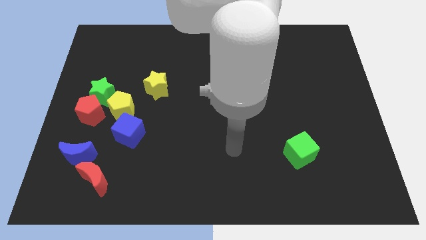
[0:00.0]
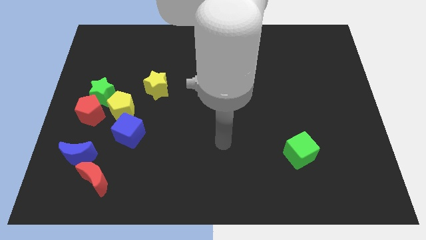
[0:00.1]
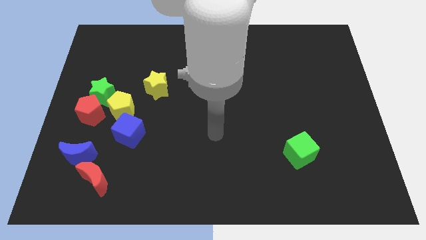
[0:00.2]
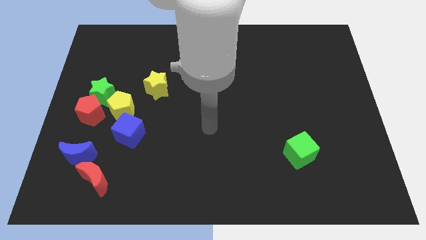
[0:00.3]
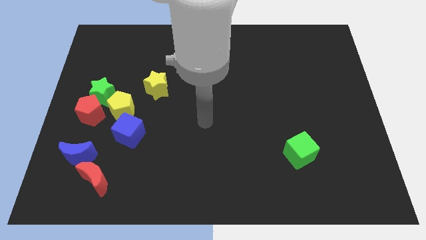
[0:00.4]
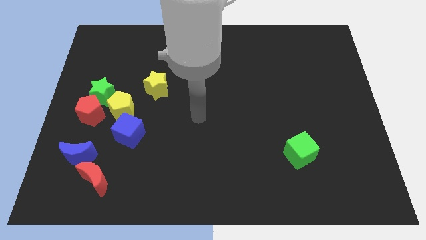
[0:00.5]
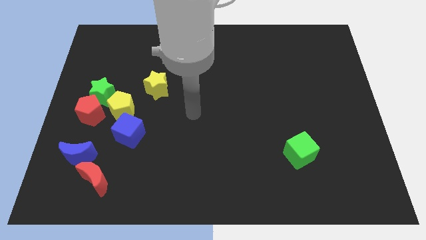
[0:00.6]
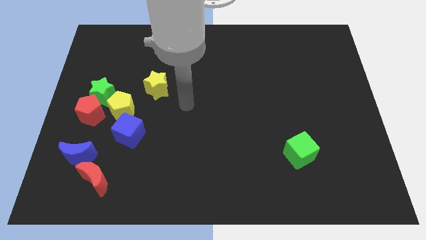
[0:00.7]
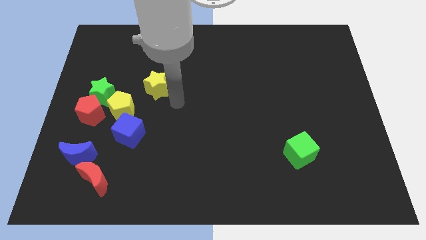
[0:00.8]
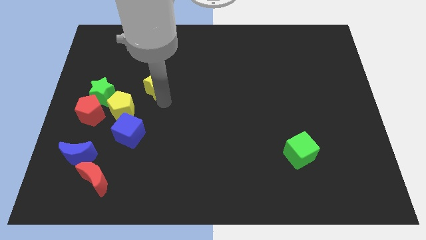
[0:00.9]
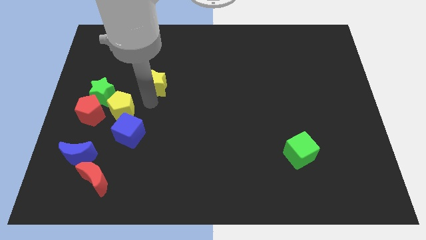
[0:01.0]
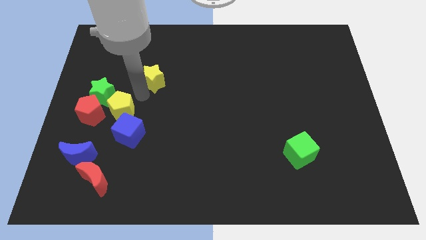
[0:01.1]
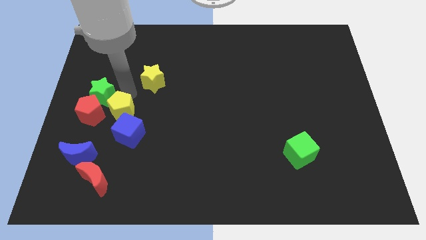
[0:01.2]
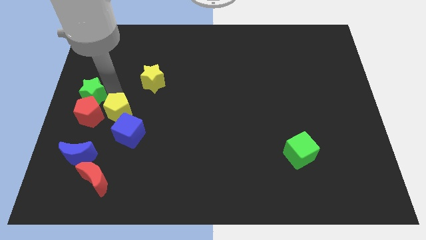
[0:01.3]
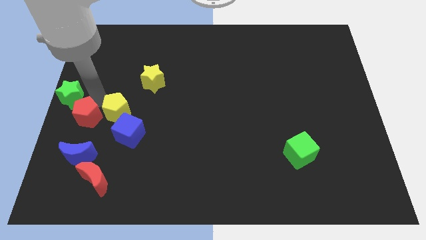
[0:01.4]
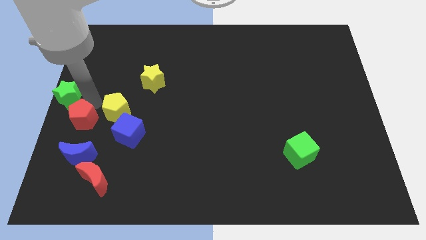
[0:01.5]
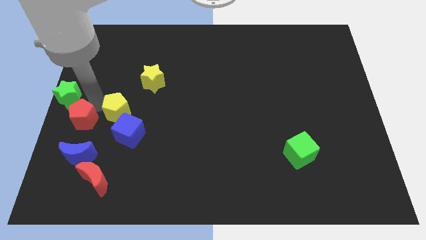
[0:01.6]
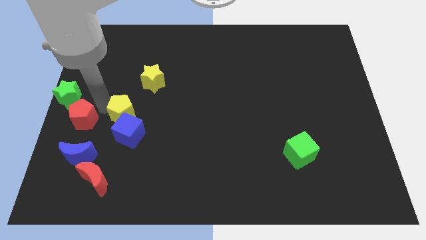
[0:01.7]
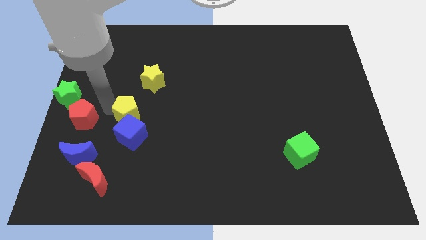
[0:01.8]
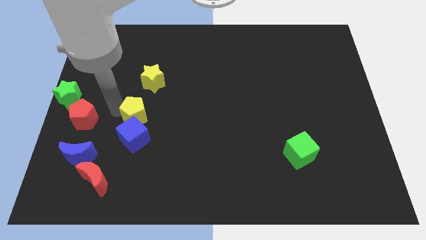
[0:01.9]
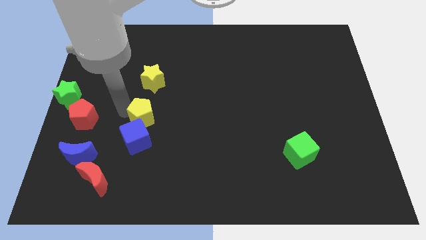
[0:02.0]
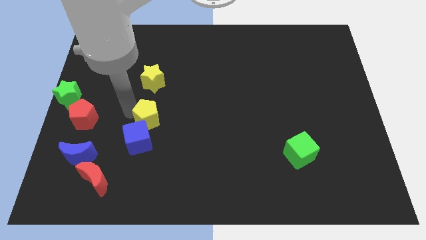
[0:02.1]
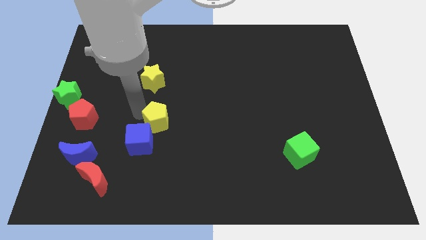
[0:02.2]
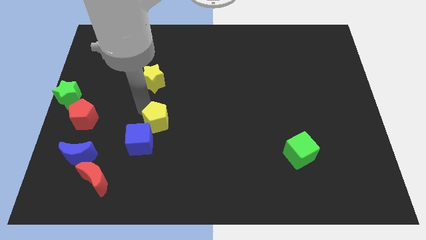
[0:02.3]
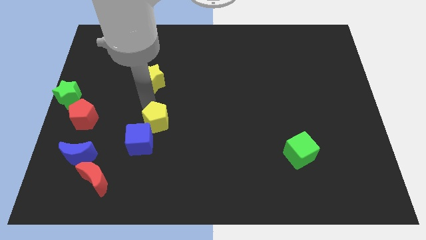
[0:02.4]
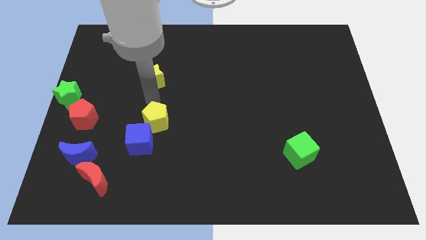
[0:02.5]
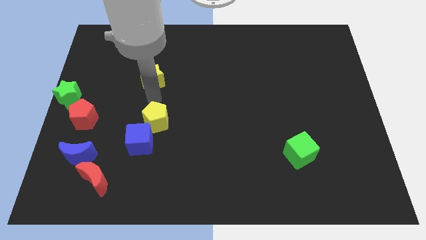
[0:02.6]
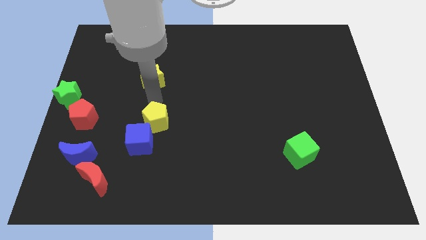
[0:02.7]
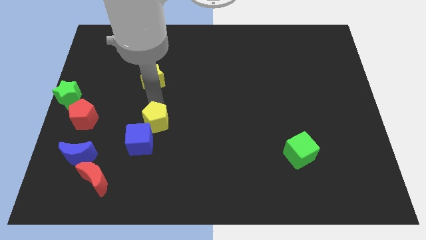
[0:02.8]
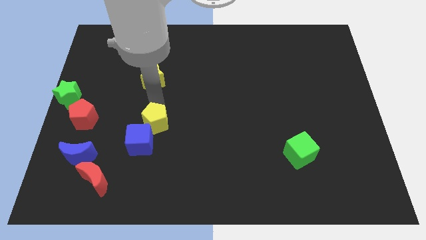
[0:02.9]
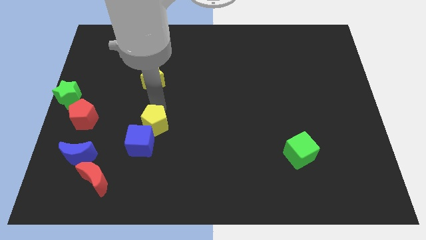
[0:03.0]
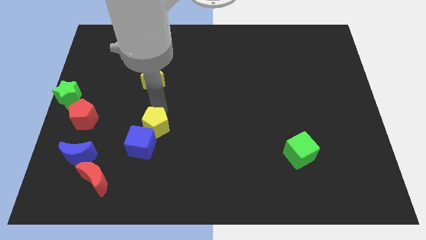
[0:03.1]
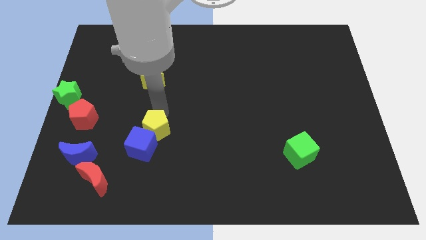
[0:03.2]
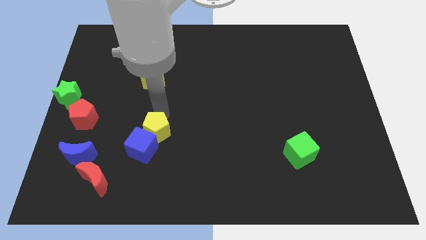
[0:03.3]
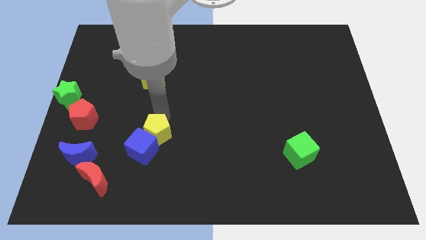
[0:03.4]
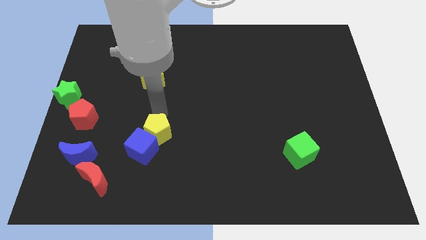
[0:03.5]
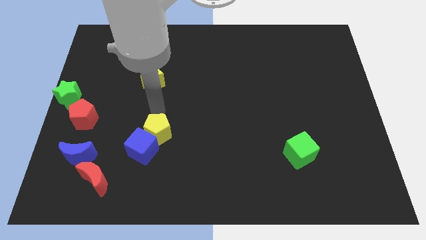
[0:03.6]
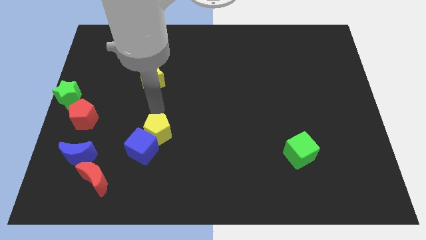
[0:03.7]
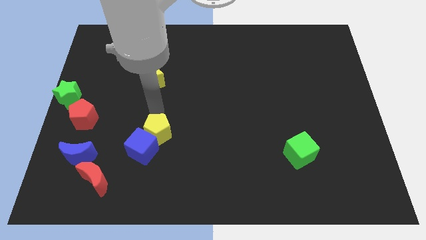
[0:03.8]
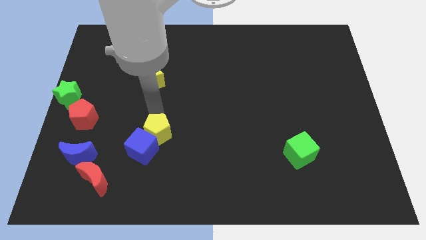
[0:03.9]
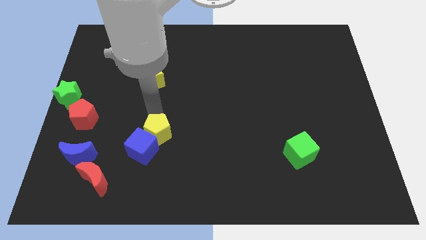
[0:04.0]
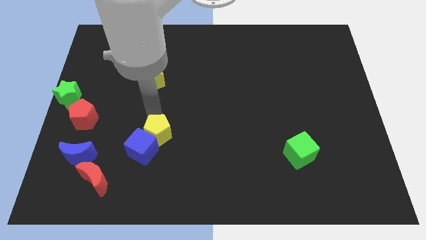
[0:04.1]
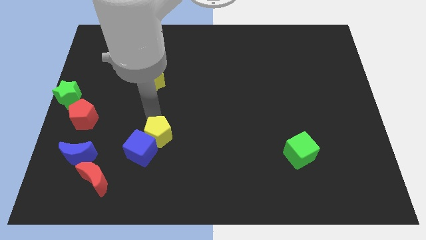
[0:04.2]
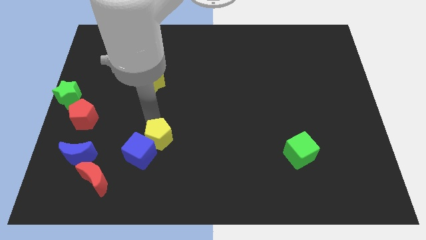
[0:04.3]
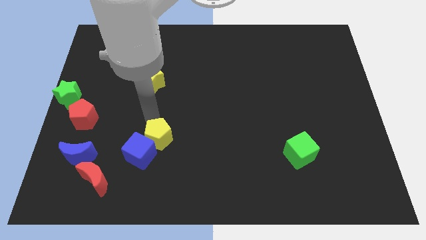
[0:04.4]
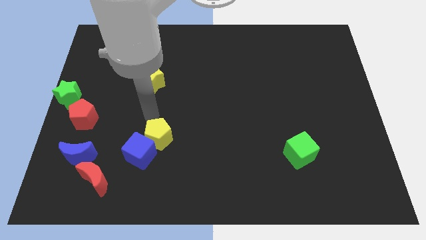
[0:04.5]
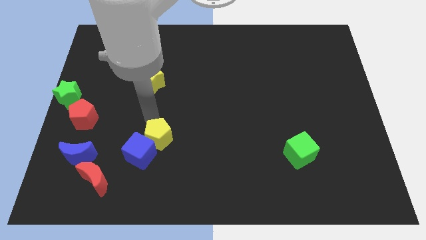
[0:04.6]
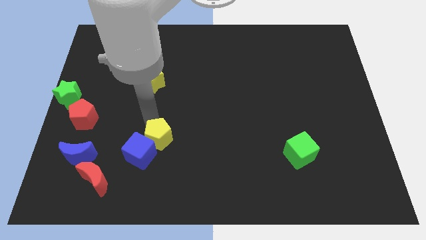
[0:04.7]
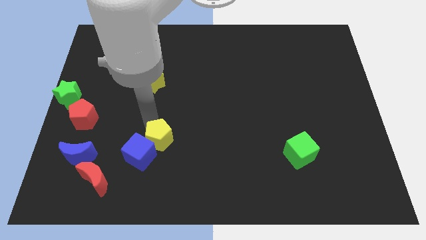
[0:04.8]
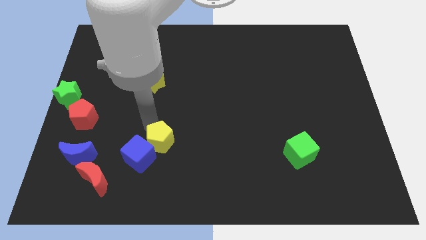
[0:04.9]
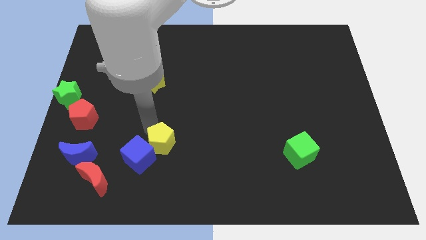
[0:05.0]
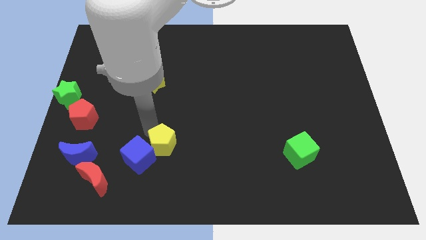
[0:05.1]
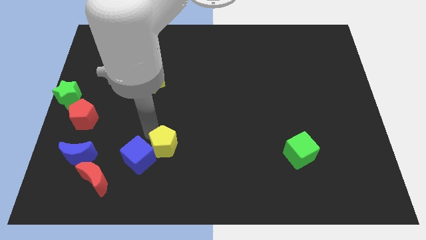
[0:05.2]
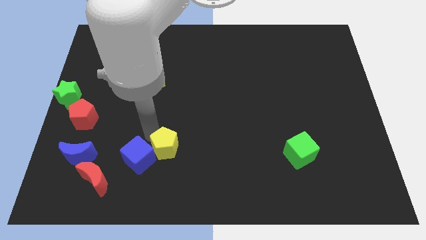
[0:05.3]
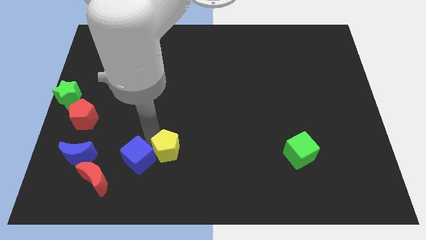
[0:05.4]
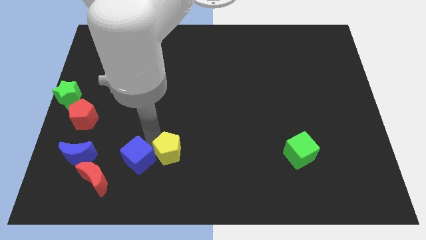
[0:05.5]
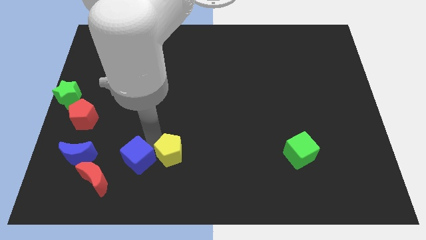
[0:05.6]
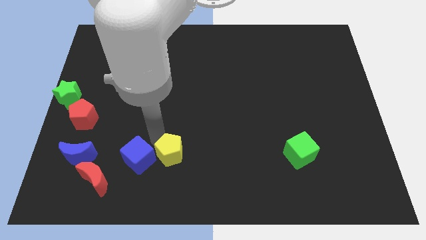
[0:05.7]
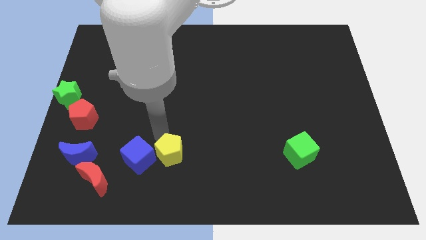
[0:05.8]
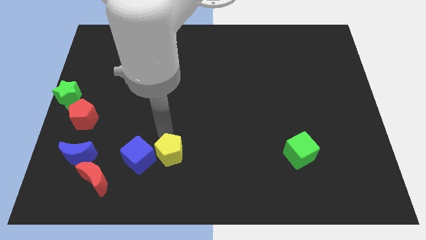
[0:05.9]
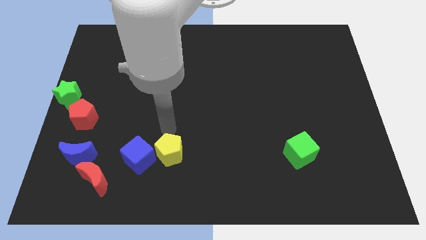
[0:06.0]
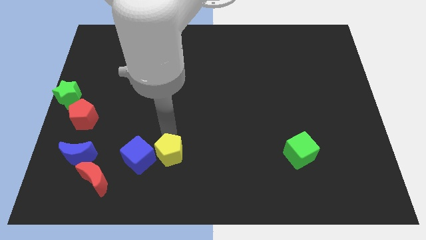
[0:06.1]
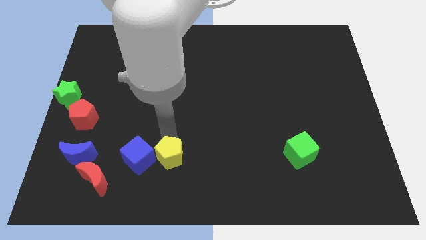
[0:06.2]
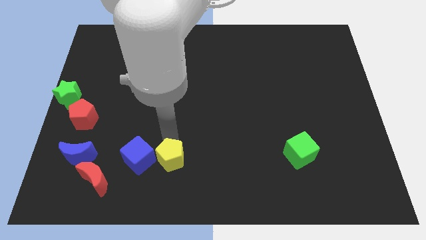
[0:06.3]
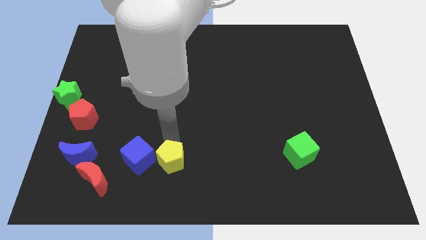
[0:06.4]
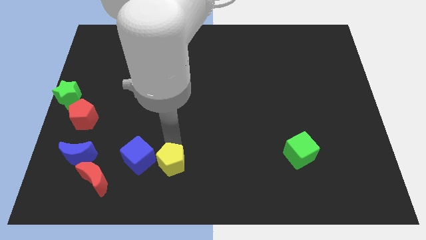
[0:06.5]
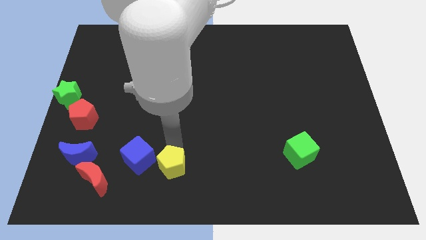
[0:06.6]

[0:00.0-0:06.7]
push the yellow pentagon to the bottom side
